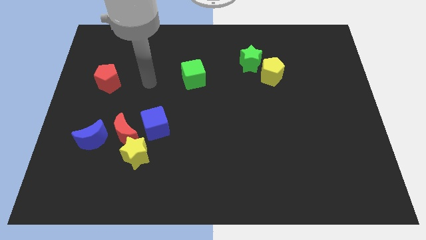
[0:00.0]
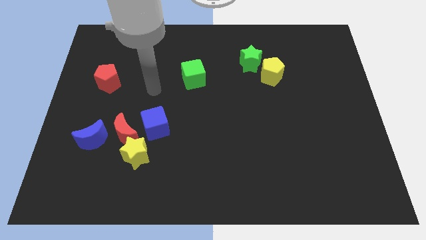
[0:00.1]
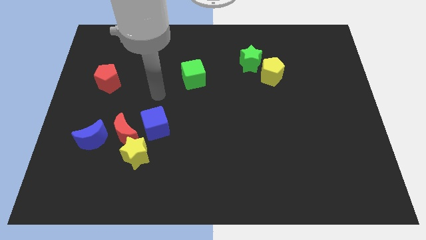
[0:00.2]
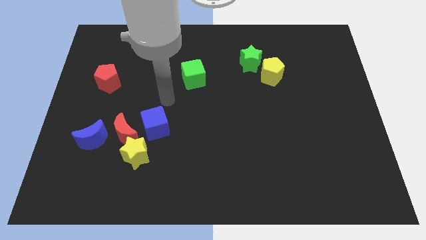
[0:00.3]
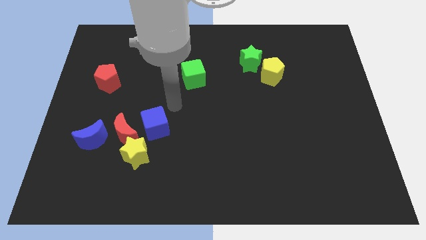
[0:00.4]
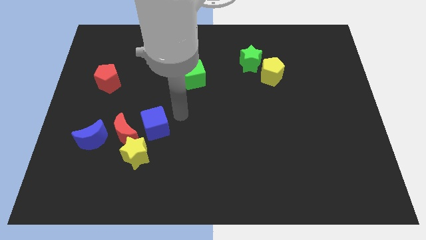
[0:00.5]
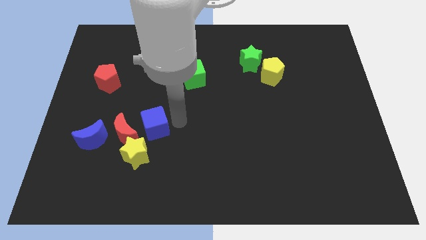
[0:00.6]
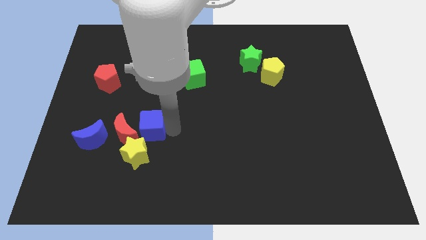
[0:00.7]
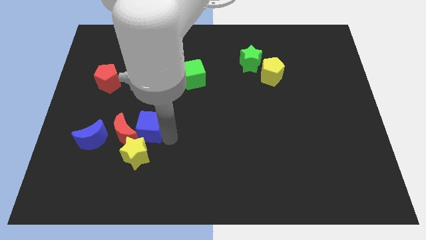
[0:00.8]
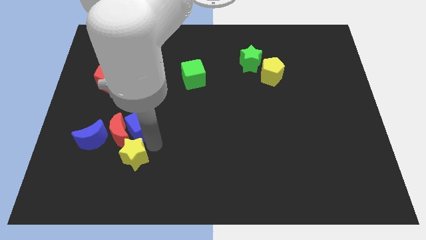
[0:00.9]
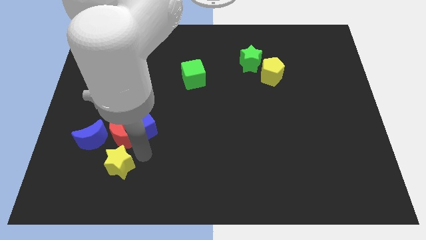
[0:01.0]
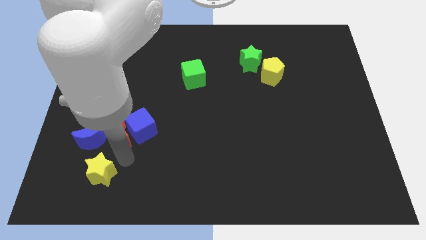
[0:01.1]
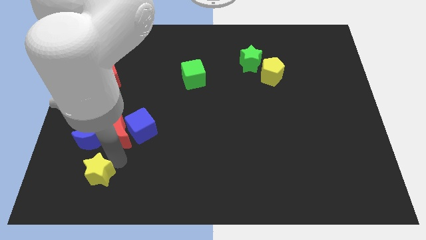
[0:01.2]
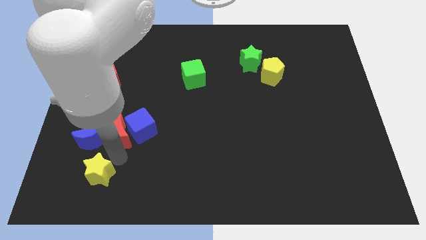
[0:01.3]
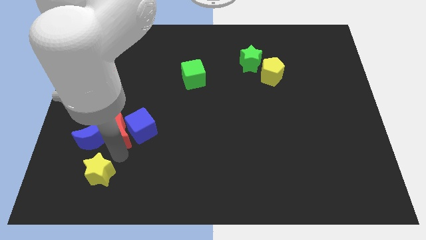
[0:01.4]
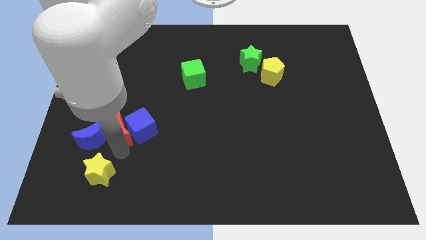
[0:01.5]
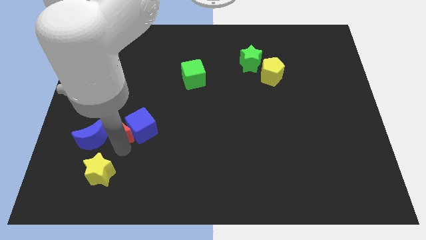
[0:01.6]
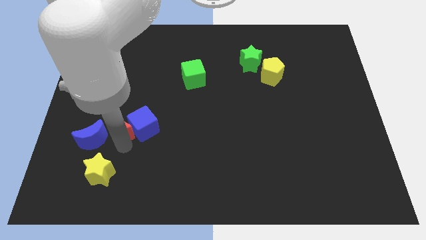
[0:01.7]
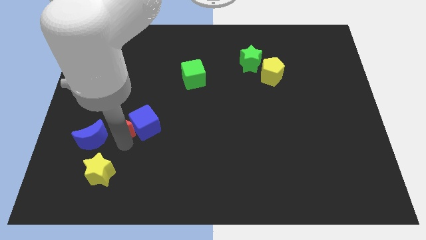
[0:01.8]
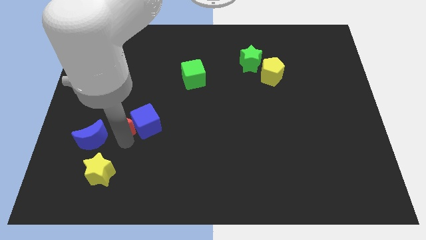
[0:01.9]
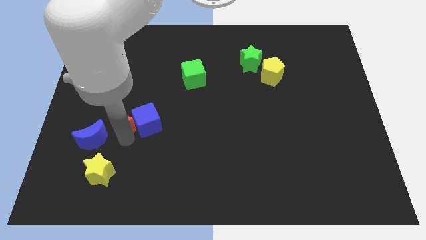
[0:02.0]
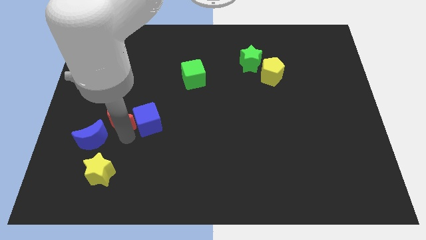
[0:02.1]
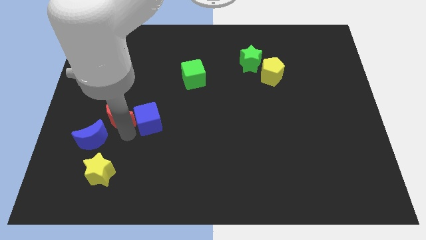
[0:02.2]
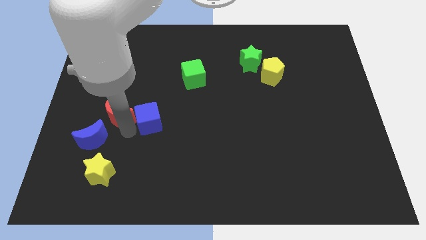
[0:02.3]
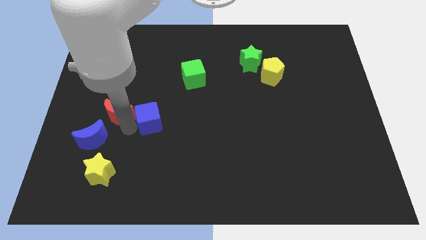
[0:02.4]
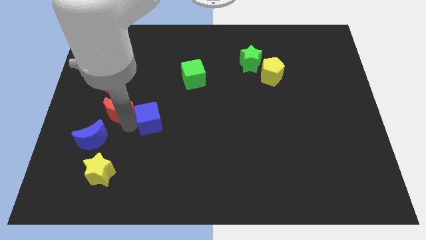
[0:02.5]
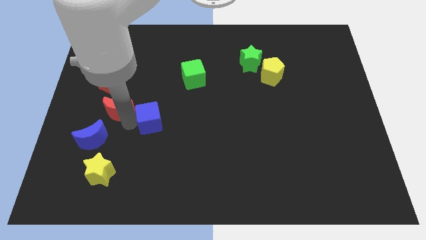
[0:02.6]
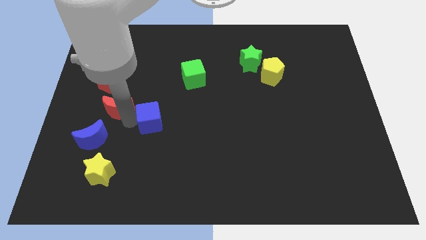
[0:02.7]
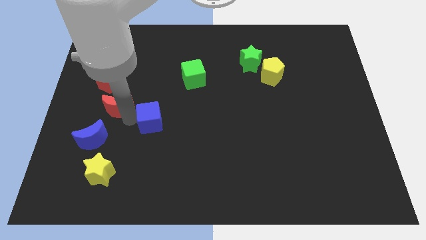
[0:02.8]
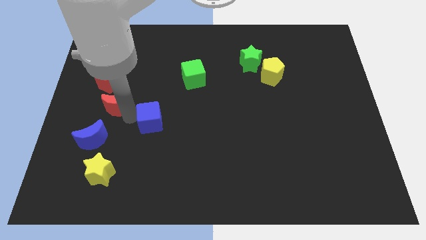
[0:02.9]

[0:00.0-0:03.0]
move the red moon away from the clump

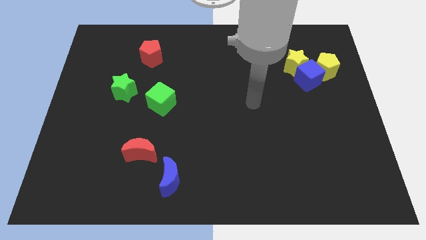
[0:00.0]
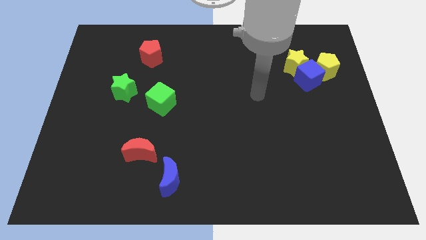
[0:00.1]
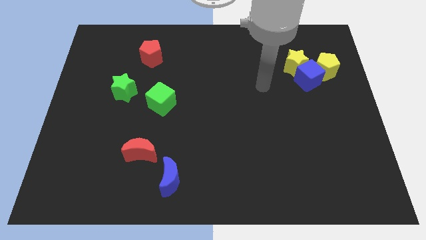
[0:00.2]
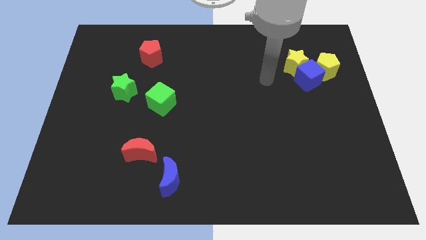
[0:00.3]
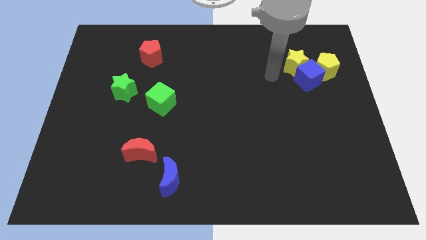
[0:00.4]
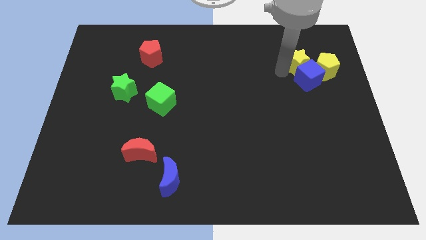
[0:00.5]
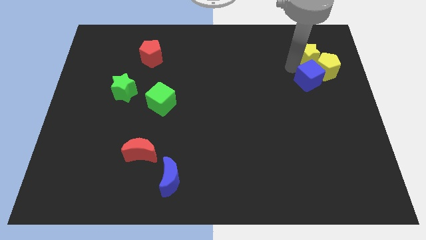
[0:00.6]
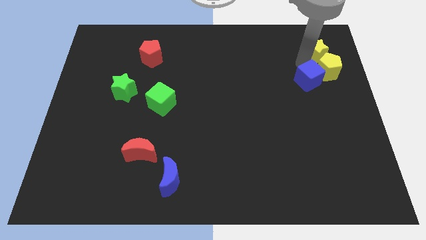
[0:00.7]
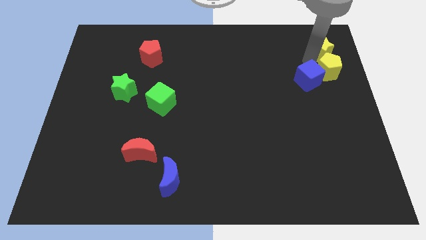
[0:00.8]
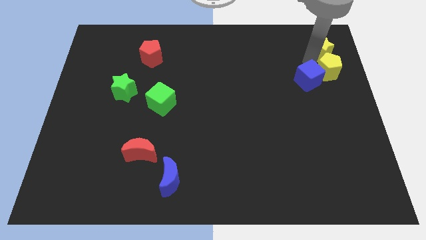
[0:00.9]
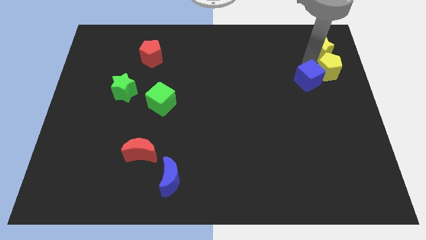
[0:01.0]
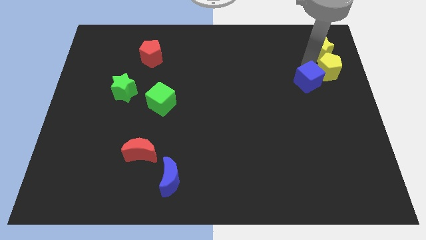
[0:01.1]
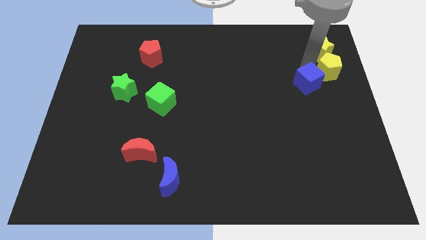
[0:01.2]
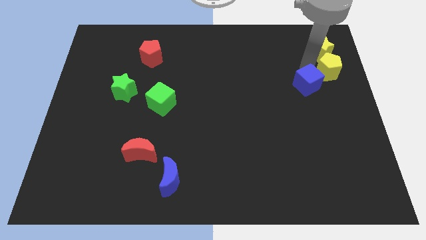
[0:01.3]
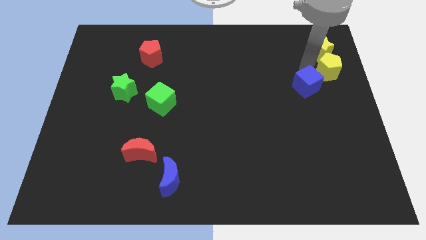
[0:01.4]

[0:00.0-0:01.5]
separate the blue cube from the yellow star and yellow pentagon

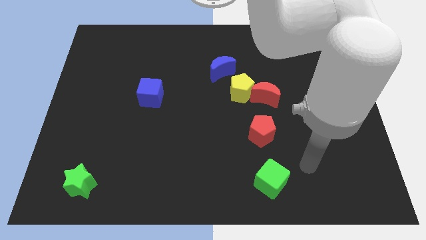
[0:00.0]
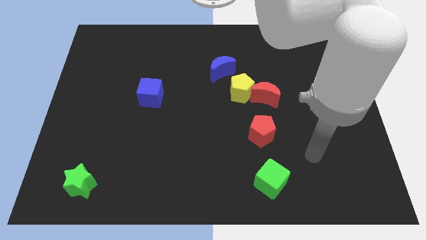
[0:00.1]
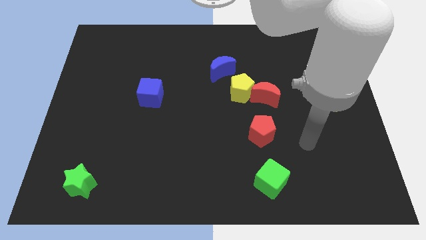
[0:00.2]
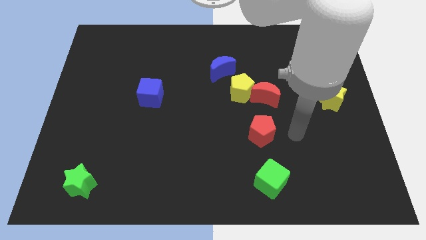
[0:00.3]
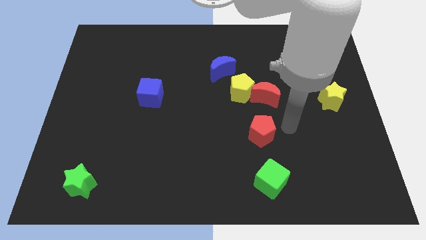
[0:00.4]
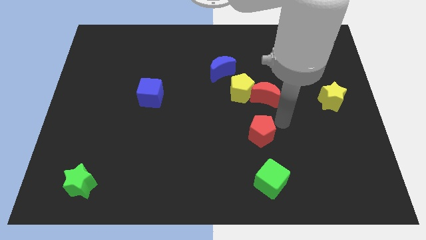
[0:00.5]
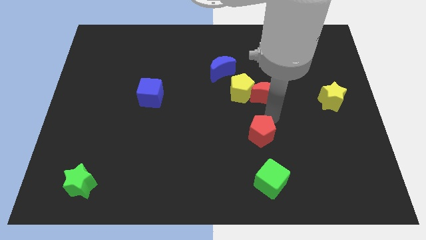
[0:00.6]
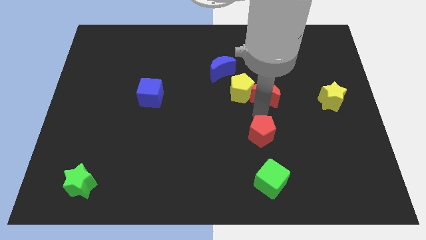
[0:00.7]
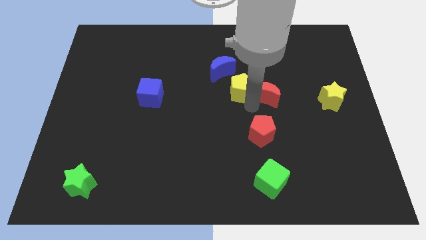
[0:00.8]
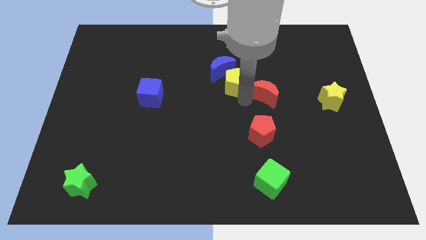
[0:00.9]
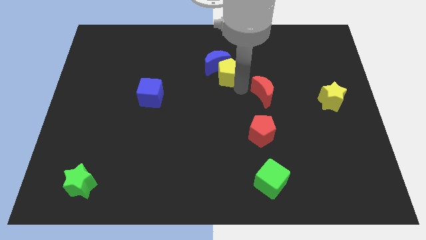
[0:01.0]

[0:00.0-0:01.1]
move the red moon away from the yellow pentagon

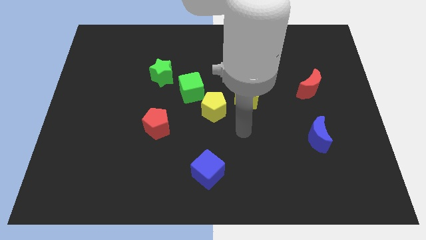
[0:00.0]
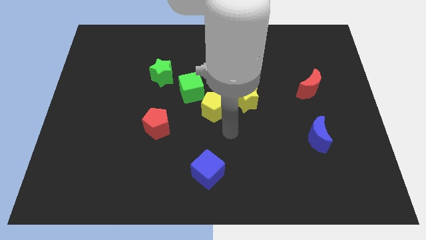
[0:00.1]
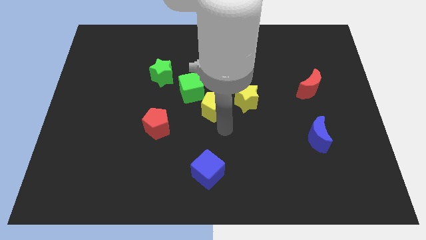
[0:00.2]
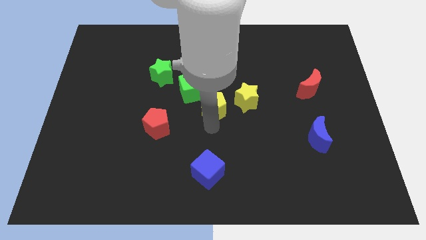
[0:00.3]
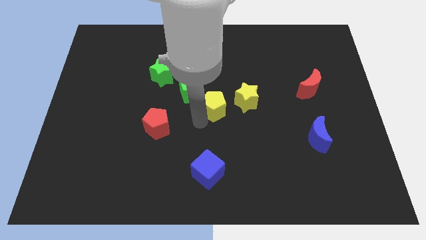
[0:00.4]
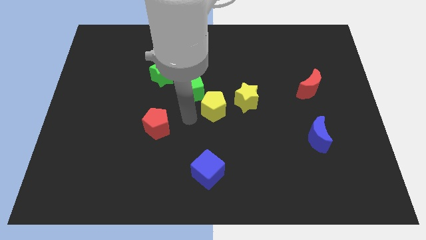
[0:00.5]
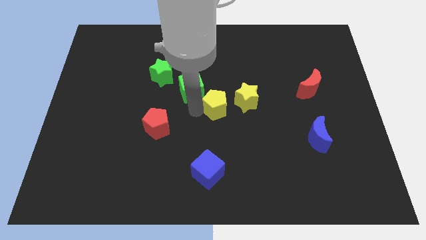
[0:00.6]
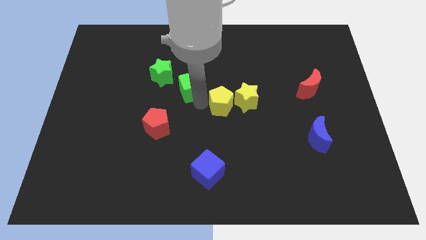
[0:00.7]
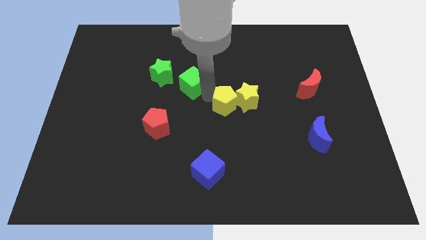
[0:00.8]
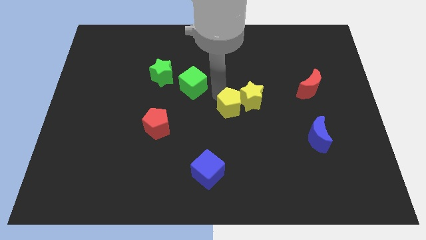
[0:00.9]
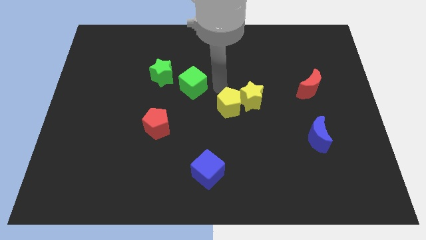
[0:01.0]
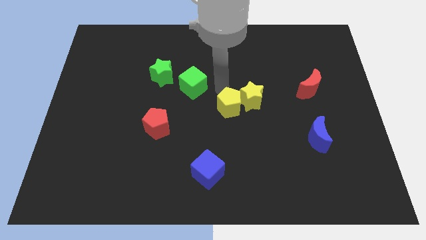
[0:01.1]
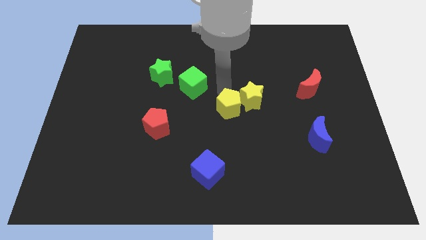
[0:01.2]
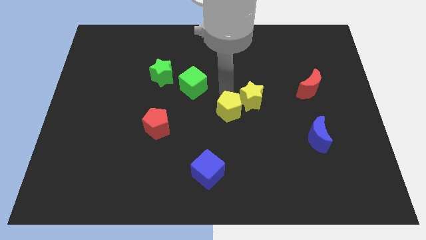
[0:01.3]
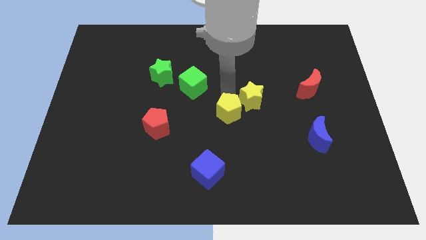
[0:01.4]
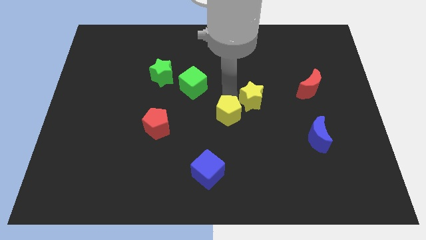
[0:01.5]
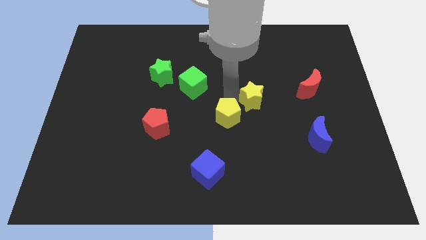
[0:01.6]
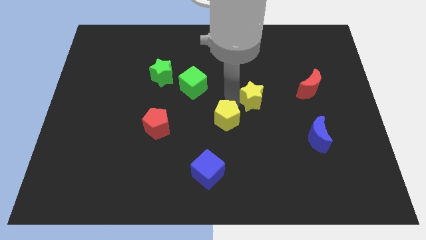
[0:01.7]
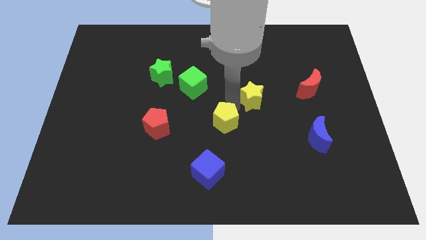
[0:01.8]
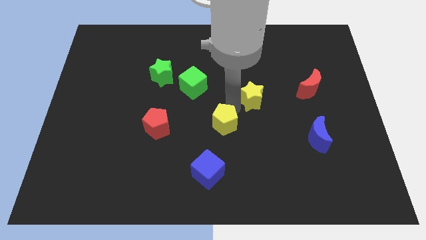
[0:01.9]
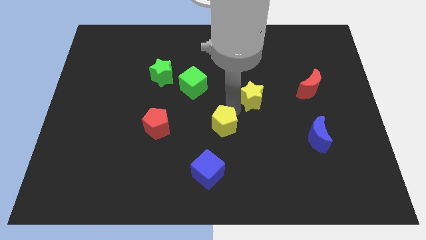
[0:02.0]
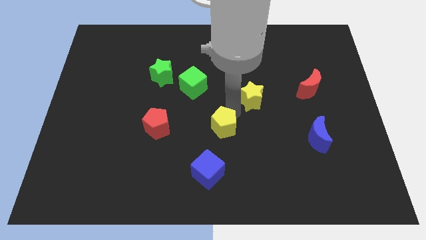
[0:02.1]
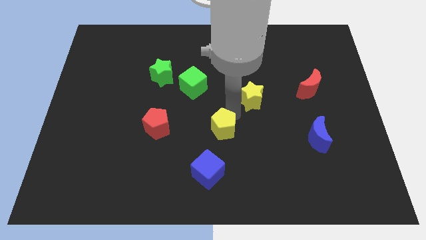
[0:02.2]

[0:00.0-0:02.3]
separate the yellow pentagon from the green cube and yellow star

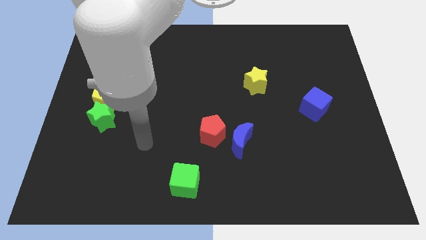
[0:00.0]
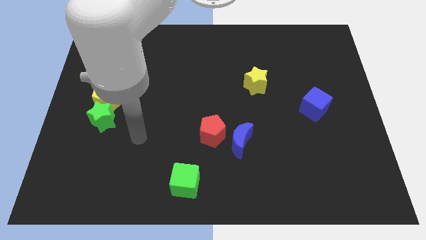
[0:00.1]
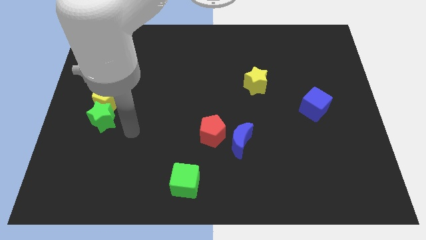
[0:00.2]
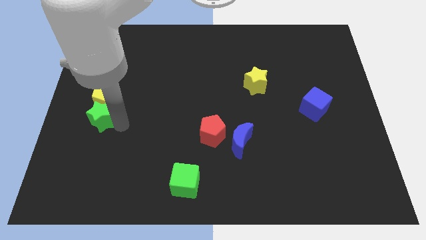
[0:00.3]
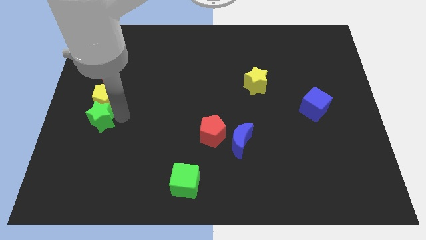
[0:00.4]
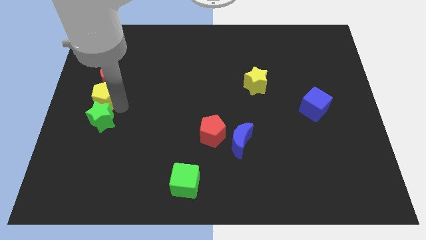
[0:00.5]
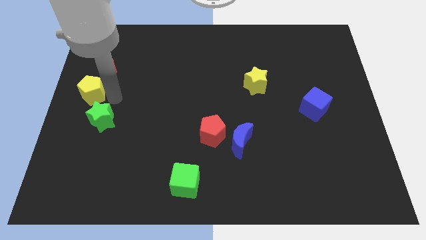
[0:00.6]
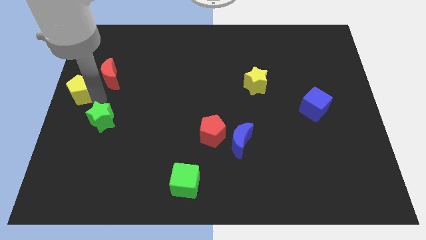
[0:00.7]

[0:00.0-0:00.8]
move the green star away from the yellow pentagon

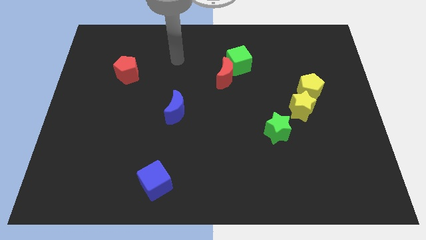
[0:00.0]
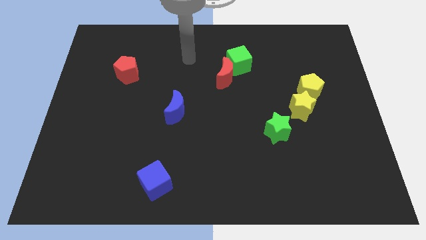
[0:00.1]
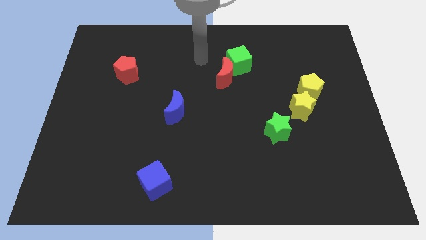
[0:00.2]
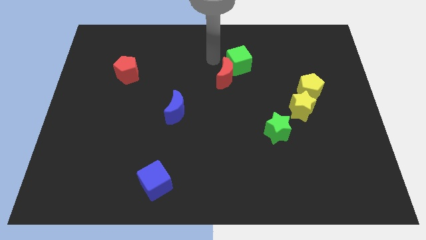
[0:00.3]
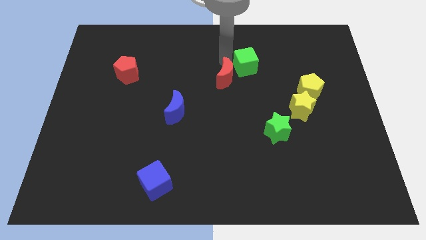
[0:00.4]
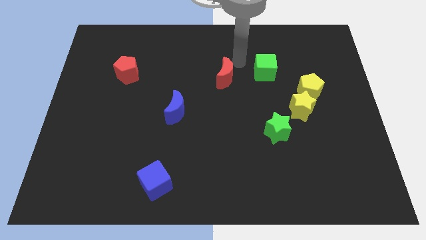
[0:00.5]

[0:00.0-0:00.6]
separate the red moon from the green cube
